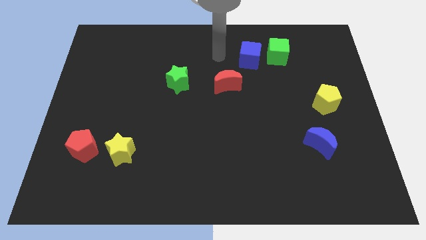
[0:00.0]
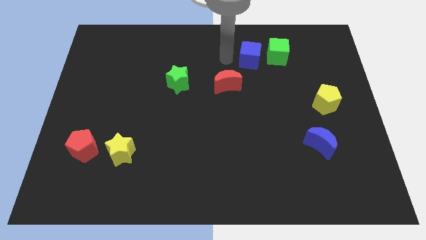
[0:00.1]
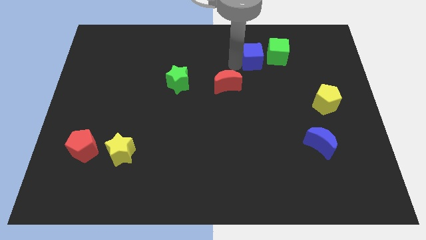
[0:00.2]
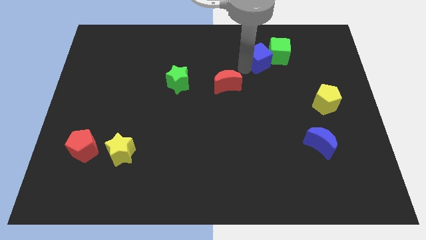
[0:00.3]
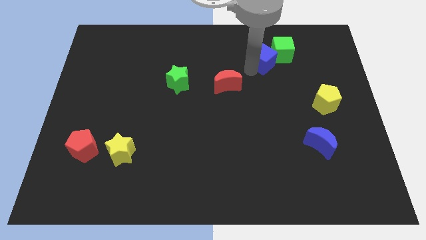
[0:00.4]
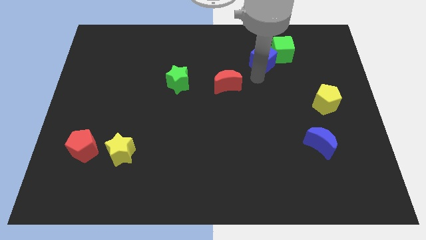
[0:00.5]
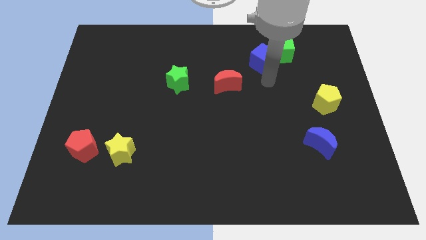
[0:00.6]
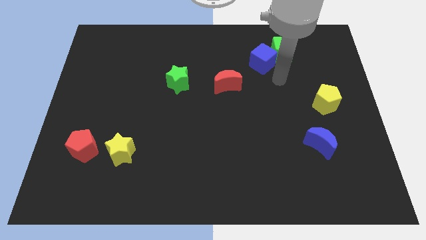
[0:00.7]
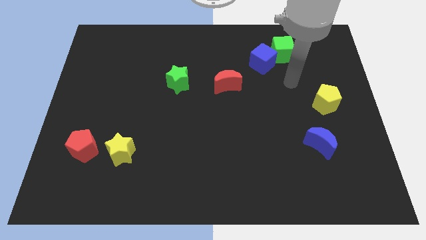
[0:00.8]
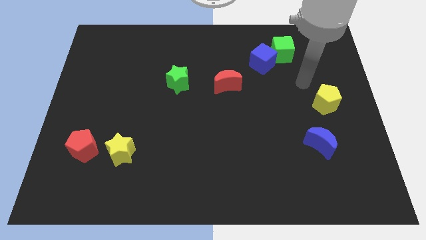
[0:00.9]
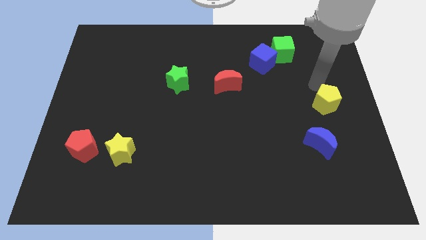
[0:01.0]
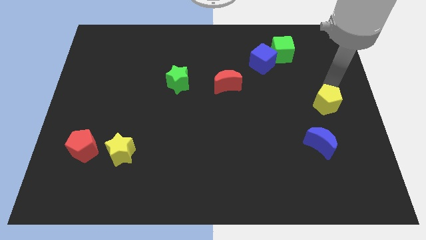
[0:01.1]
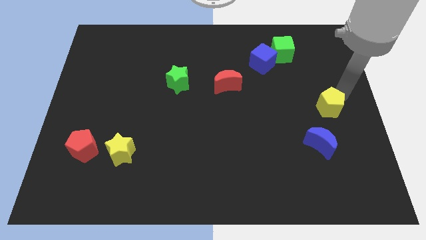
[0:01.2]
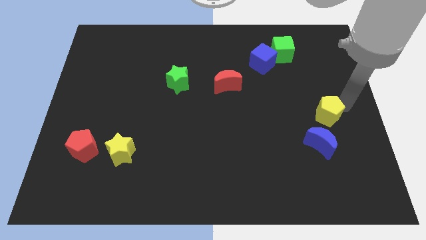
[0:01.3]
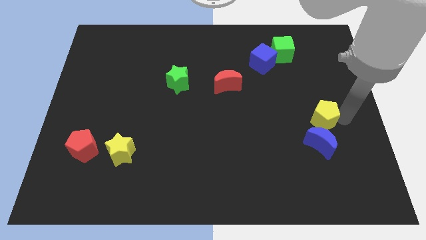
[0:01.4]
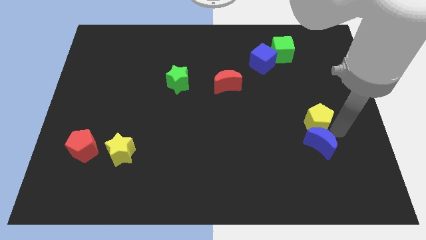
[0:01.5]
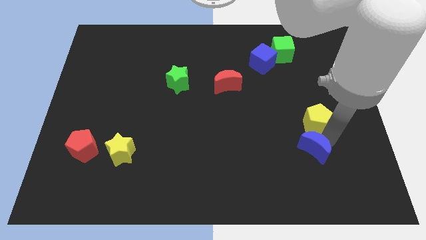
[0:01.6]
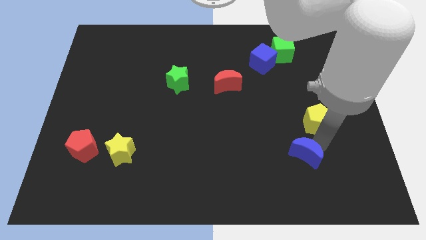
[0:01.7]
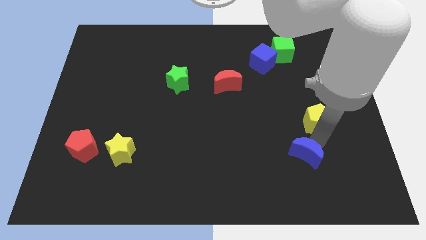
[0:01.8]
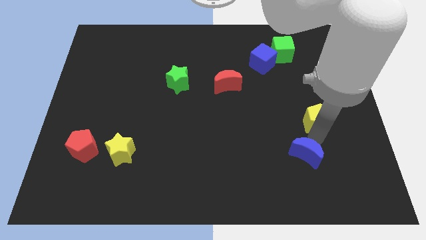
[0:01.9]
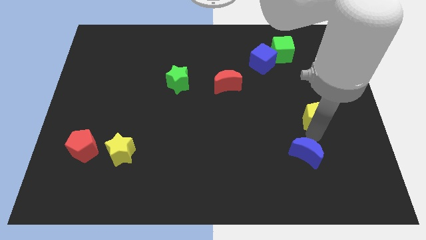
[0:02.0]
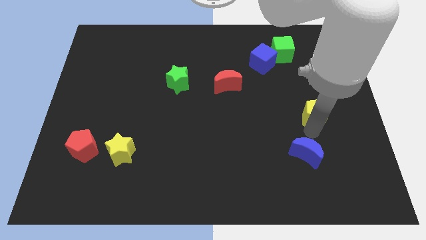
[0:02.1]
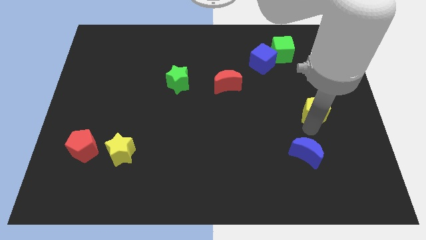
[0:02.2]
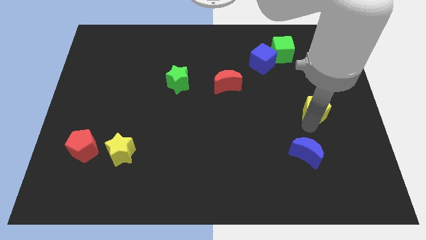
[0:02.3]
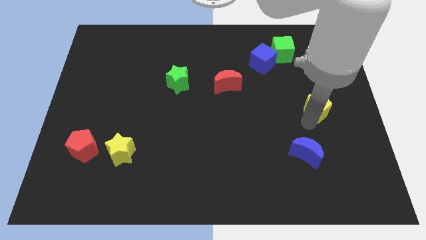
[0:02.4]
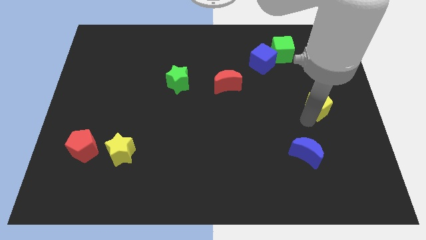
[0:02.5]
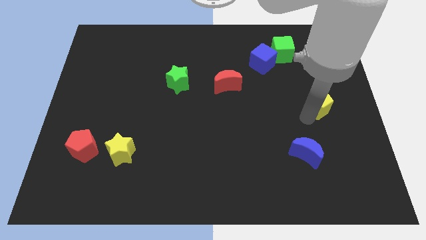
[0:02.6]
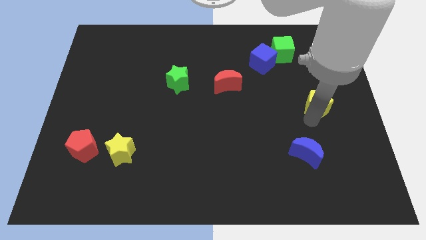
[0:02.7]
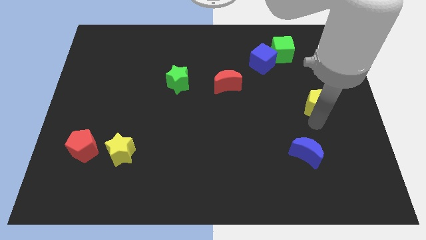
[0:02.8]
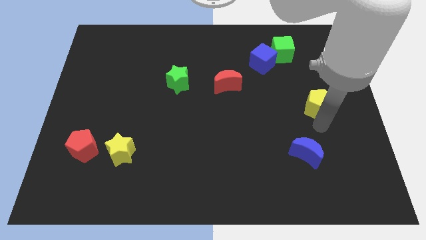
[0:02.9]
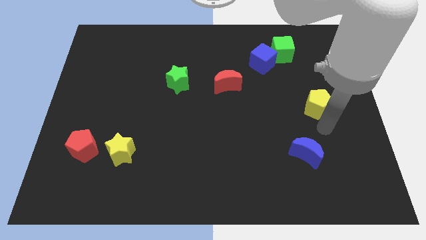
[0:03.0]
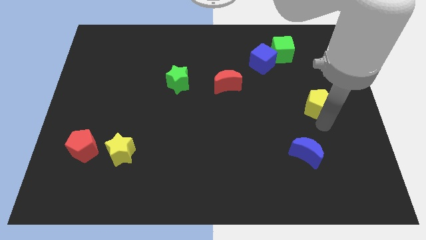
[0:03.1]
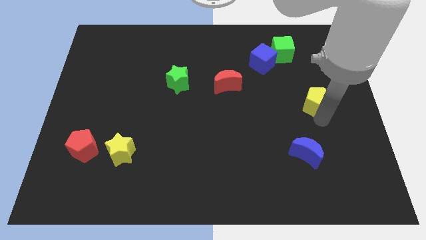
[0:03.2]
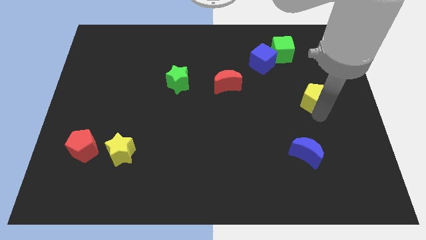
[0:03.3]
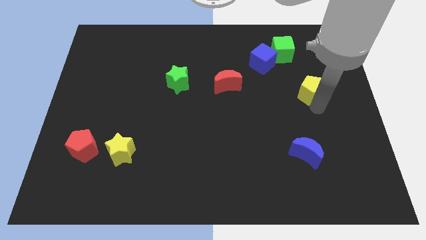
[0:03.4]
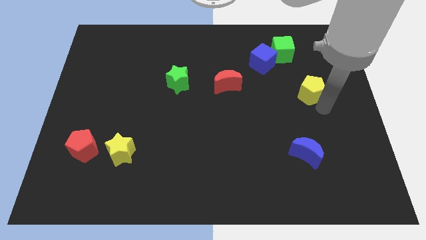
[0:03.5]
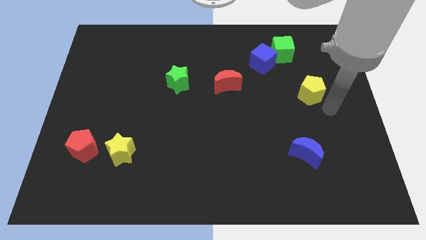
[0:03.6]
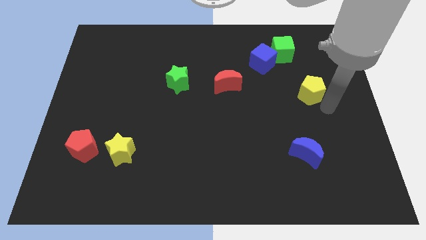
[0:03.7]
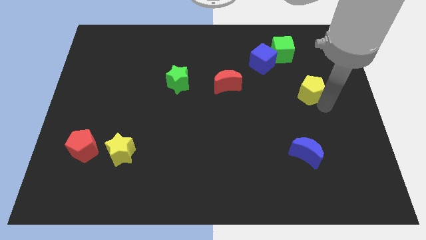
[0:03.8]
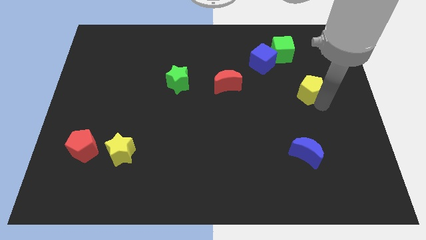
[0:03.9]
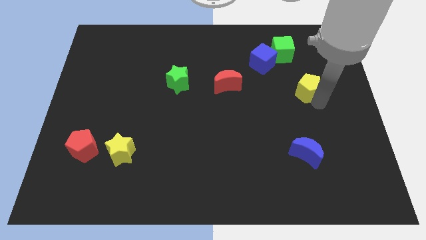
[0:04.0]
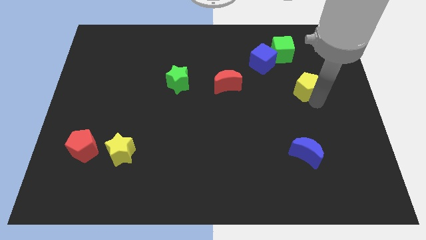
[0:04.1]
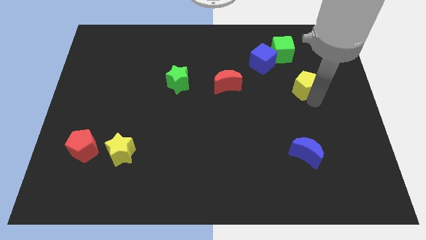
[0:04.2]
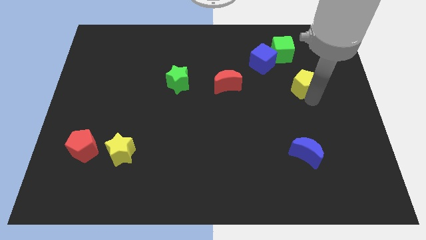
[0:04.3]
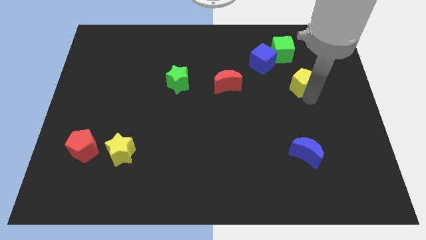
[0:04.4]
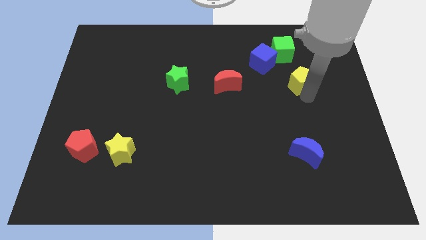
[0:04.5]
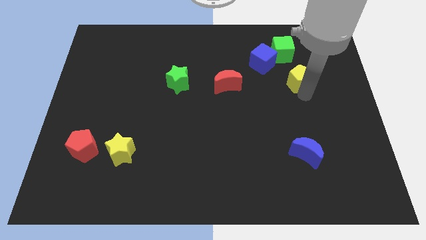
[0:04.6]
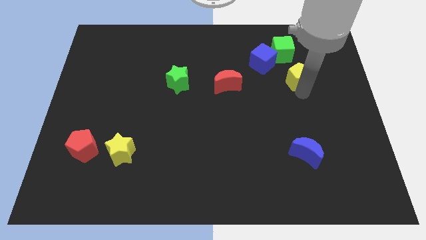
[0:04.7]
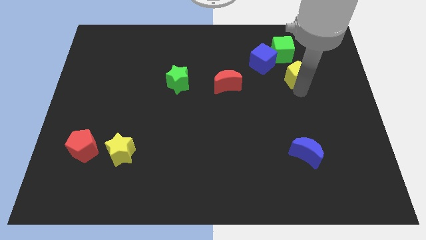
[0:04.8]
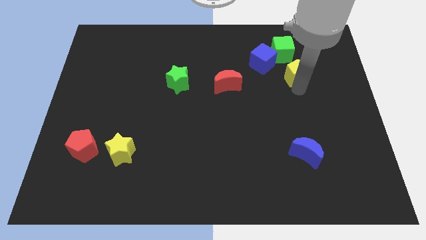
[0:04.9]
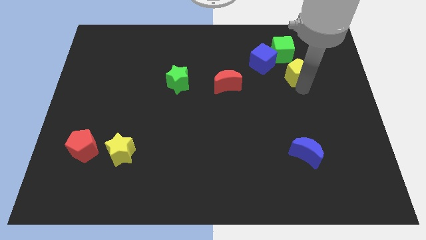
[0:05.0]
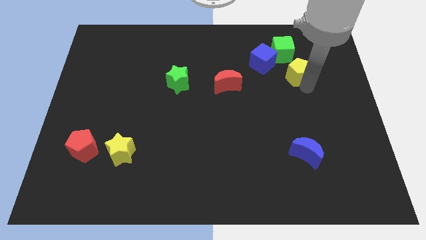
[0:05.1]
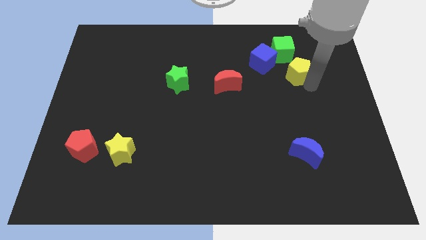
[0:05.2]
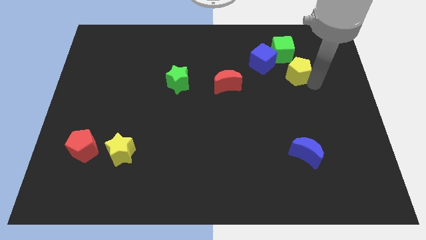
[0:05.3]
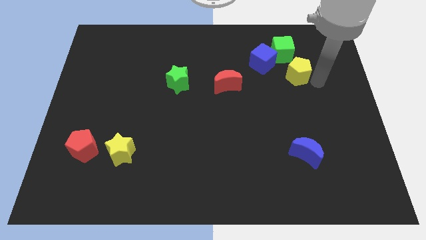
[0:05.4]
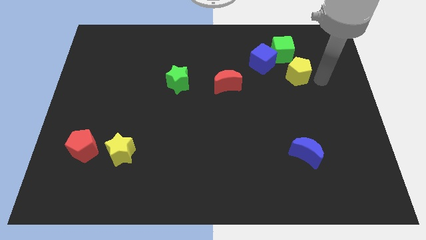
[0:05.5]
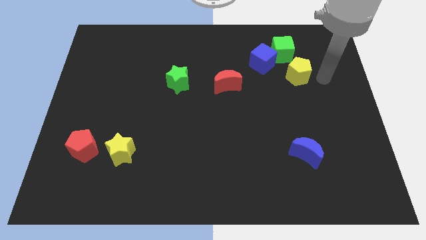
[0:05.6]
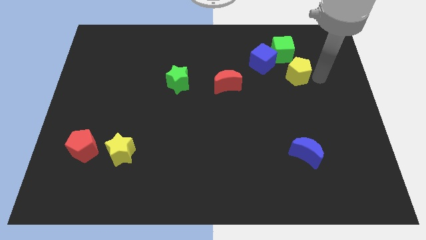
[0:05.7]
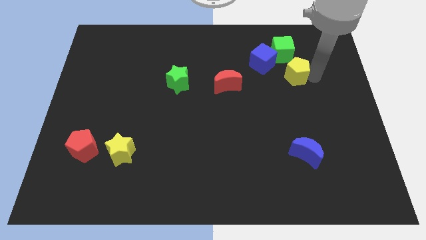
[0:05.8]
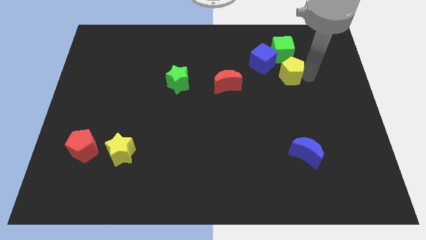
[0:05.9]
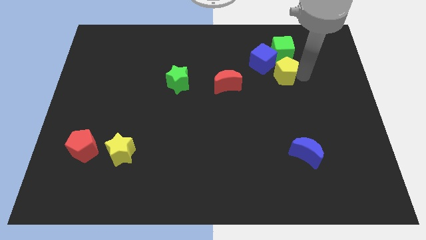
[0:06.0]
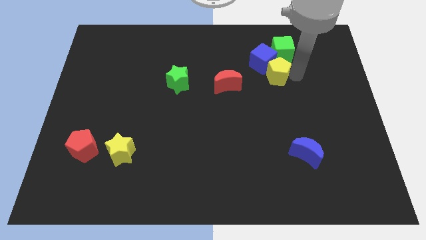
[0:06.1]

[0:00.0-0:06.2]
slide the yellow pentagon next to the blue cube
